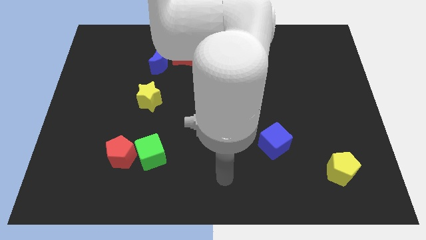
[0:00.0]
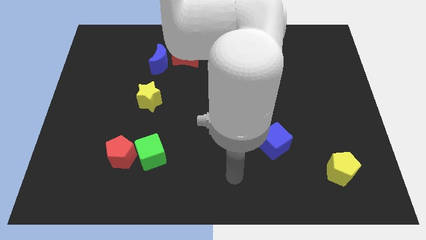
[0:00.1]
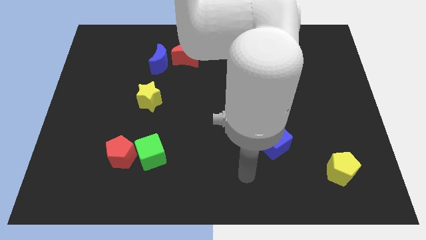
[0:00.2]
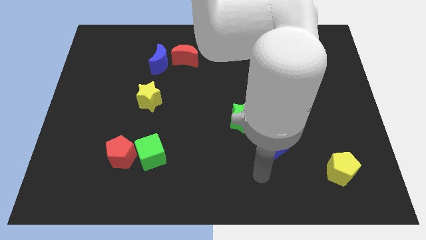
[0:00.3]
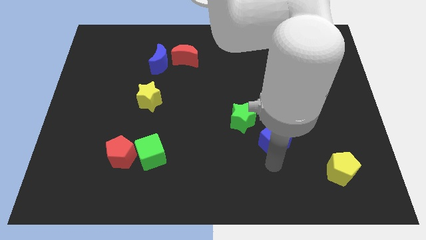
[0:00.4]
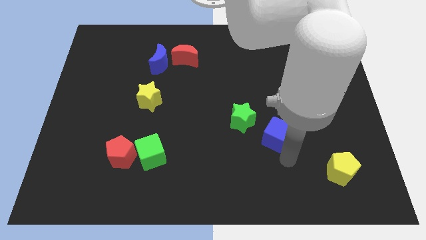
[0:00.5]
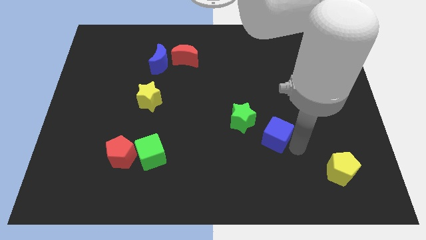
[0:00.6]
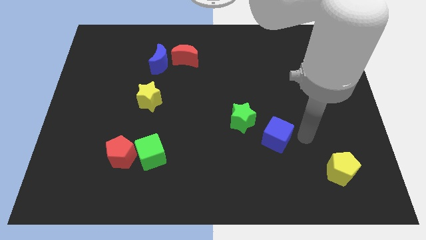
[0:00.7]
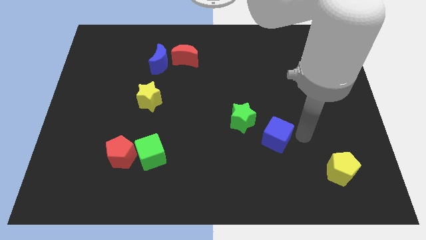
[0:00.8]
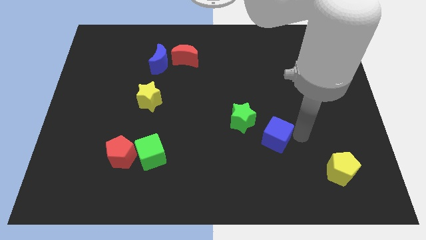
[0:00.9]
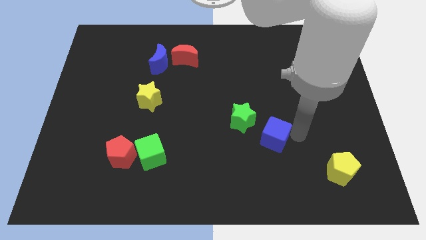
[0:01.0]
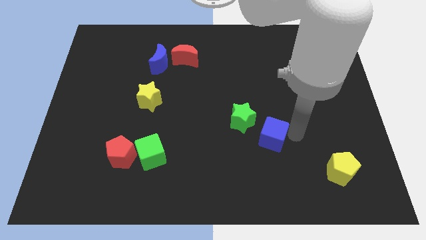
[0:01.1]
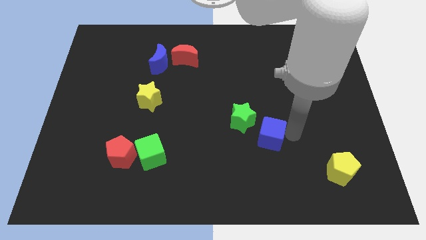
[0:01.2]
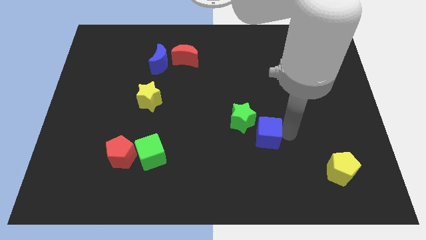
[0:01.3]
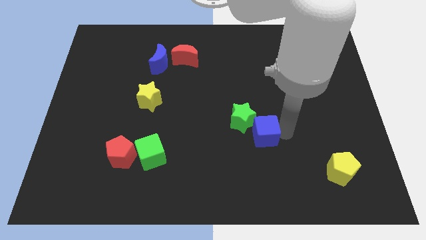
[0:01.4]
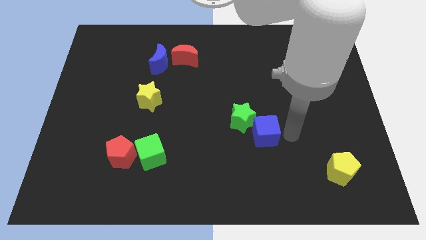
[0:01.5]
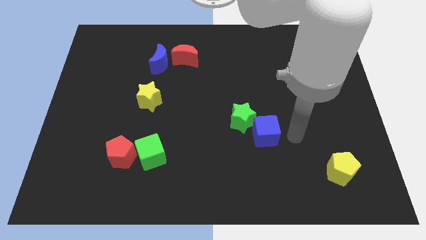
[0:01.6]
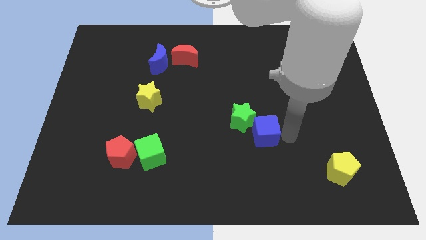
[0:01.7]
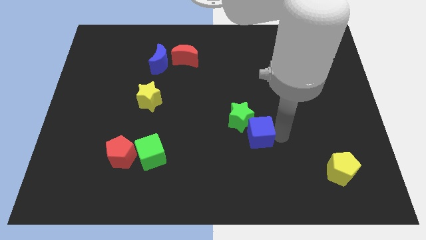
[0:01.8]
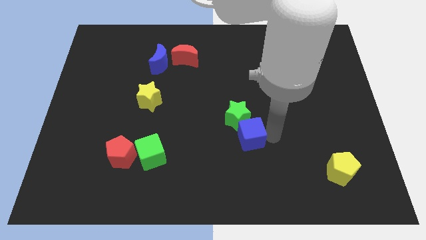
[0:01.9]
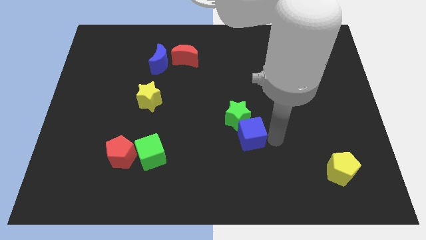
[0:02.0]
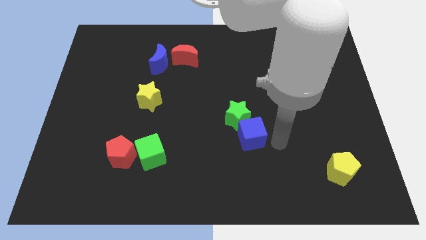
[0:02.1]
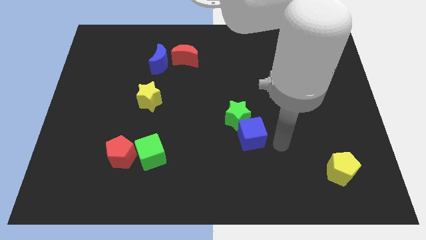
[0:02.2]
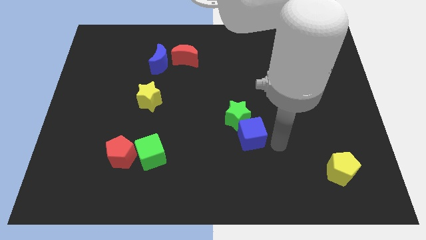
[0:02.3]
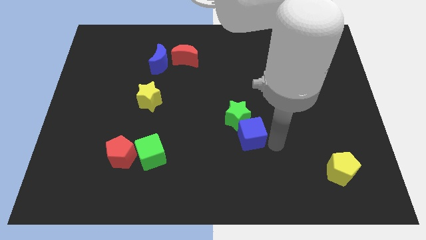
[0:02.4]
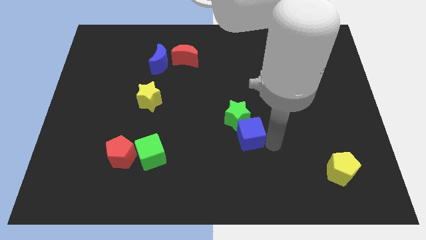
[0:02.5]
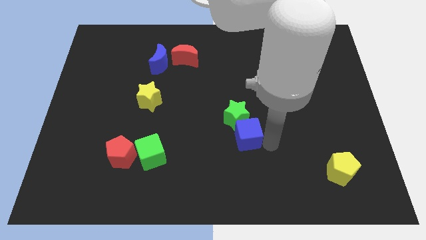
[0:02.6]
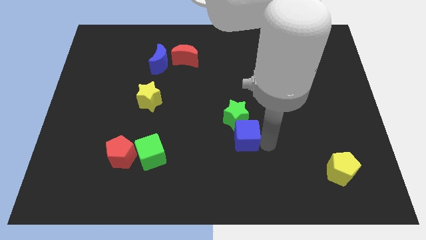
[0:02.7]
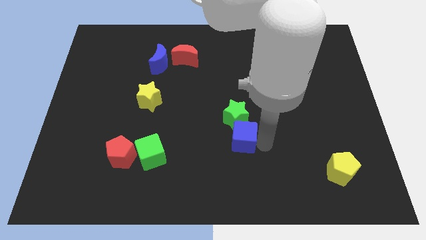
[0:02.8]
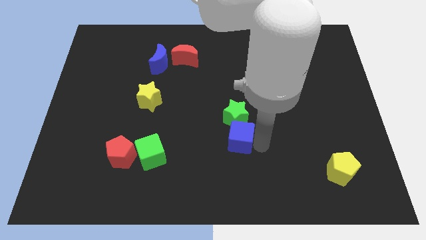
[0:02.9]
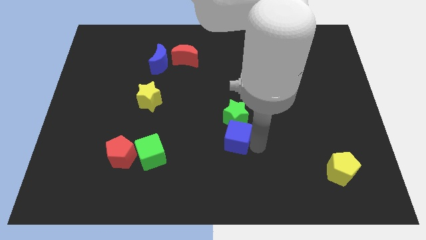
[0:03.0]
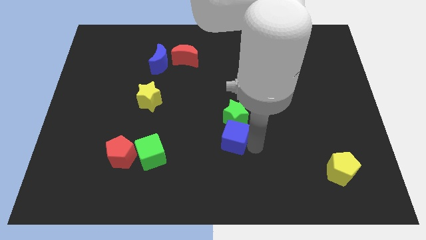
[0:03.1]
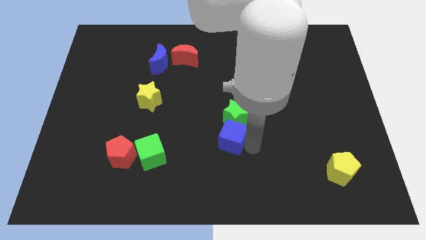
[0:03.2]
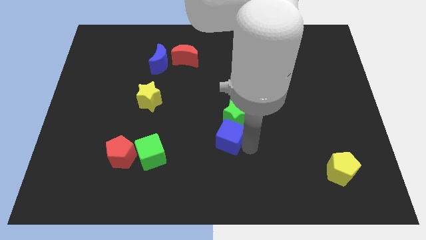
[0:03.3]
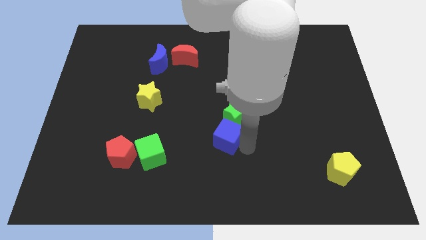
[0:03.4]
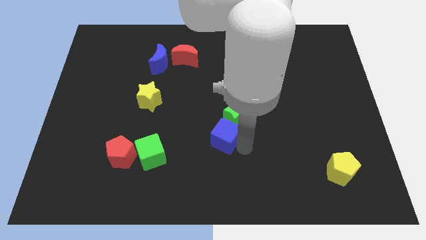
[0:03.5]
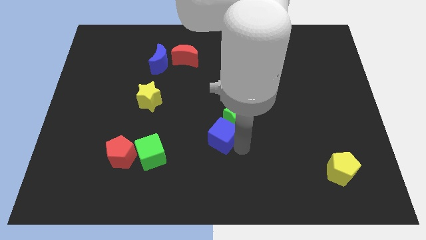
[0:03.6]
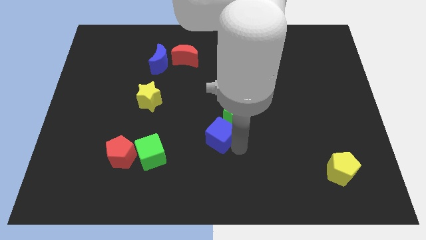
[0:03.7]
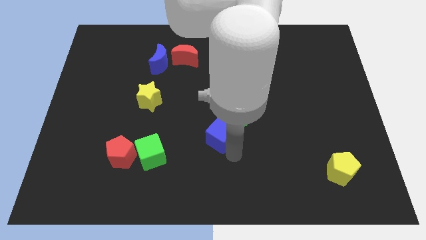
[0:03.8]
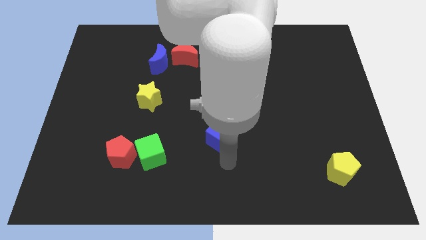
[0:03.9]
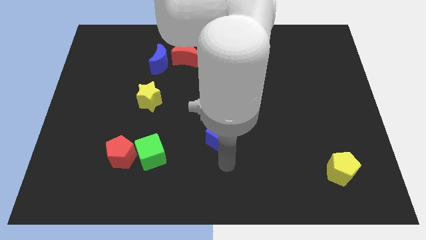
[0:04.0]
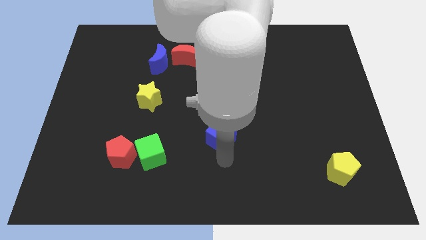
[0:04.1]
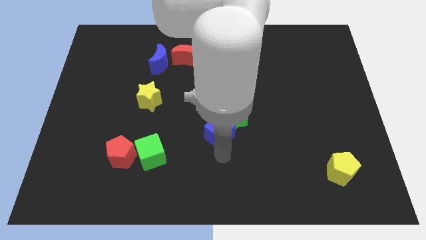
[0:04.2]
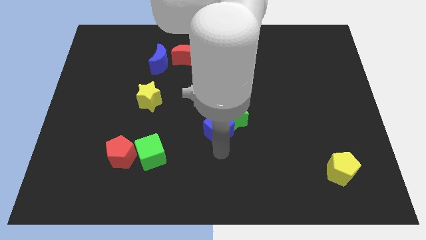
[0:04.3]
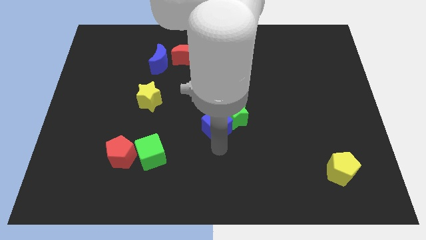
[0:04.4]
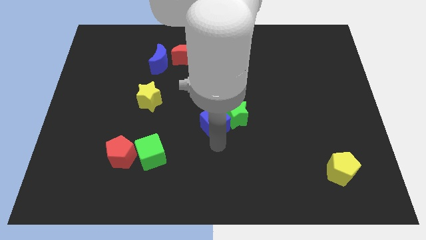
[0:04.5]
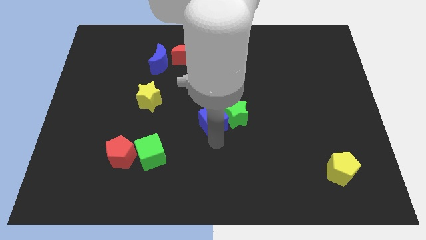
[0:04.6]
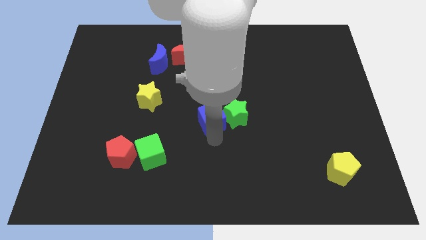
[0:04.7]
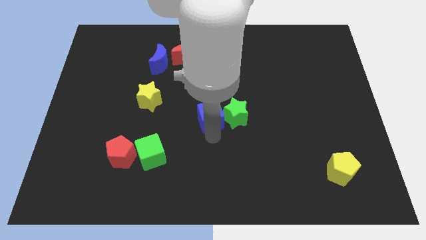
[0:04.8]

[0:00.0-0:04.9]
move the blue cube to the top left of the green star

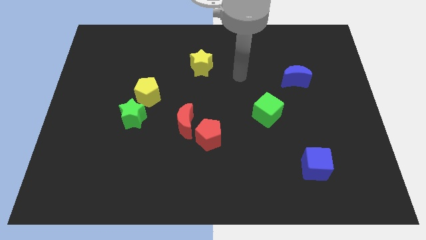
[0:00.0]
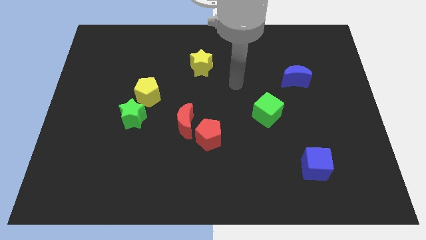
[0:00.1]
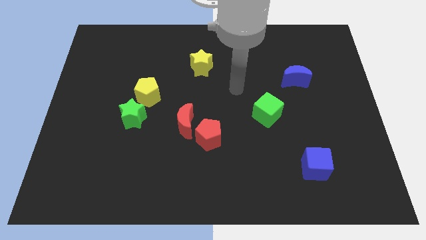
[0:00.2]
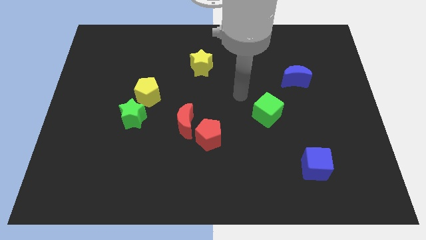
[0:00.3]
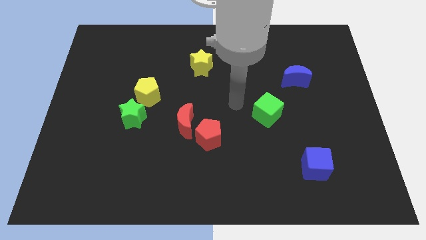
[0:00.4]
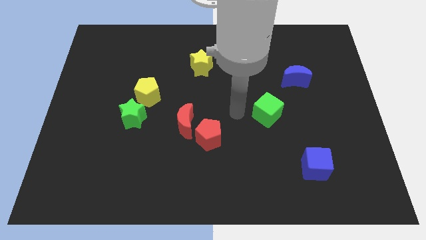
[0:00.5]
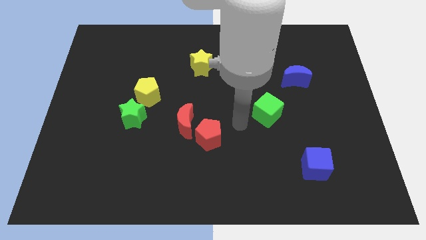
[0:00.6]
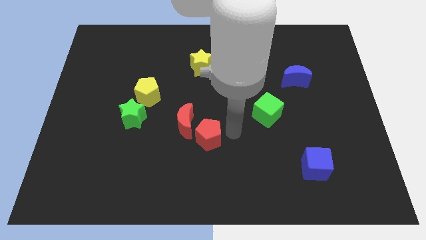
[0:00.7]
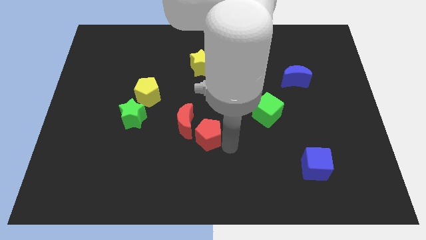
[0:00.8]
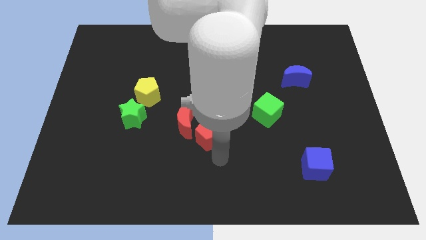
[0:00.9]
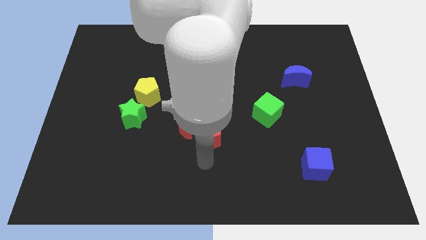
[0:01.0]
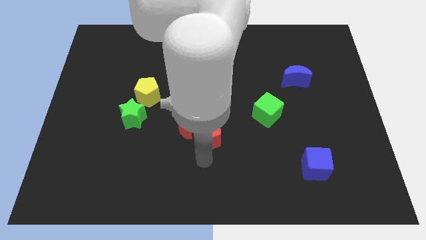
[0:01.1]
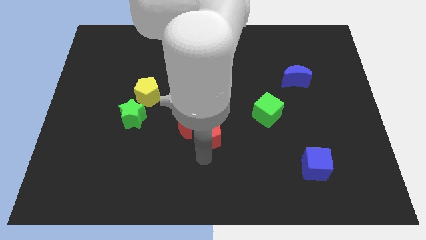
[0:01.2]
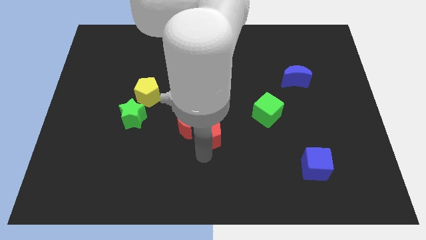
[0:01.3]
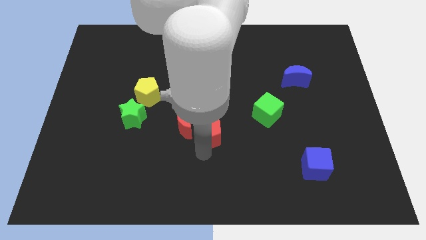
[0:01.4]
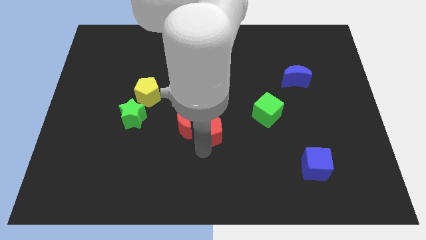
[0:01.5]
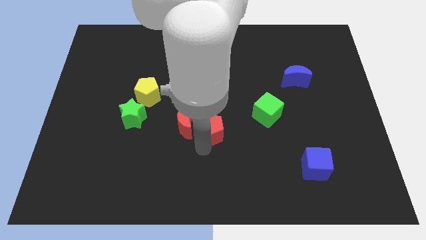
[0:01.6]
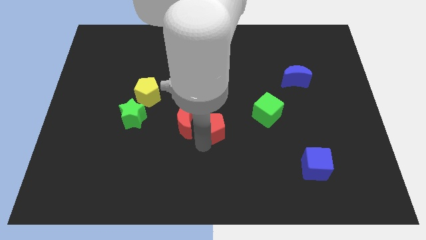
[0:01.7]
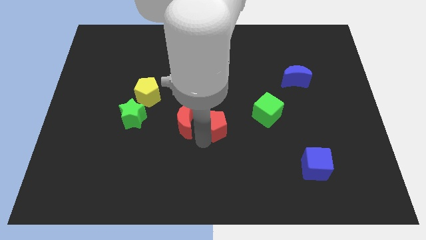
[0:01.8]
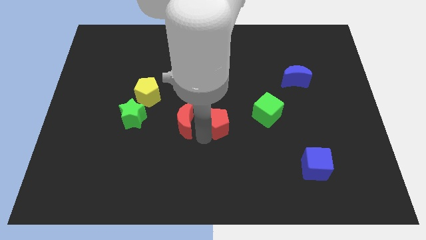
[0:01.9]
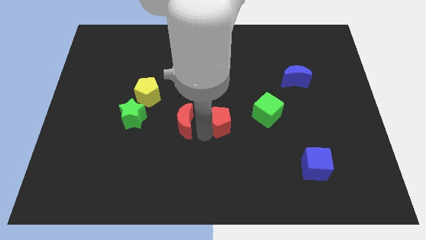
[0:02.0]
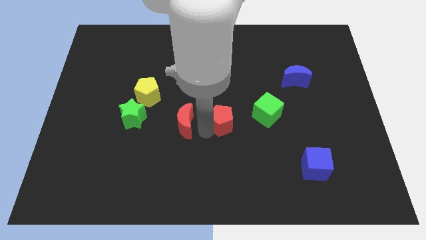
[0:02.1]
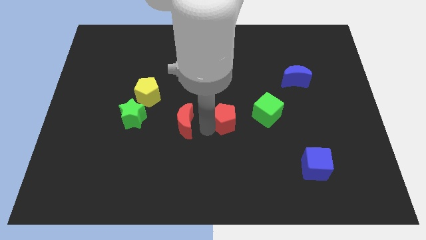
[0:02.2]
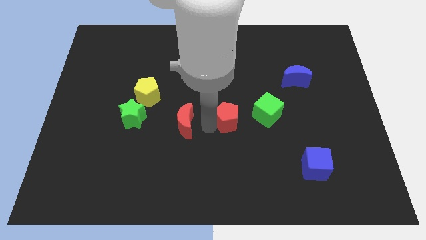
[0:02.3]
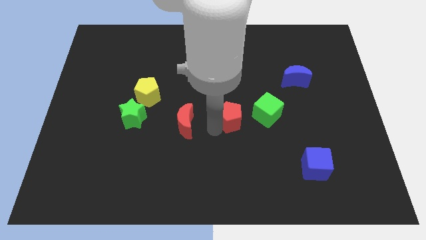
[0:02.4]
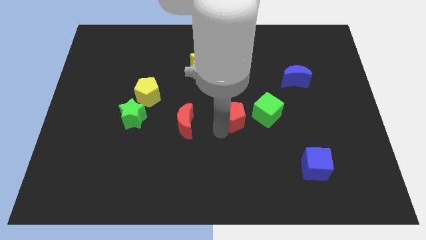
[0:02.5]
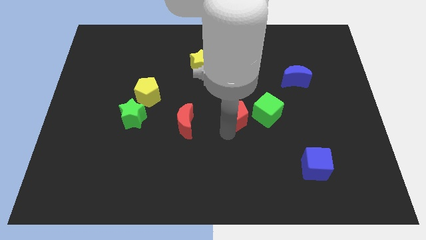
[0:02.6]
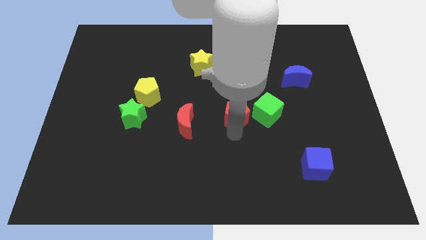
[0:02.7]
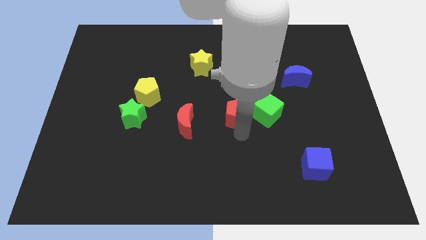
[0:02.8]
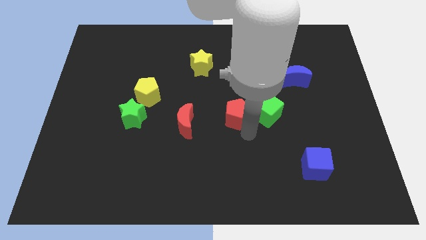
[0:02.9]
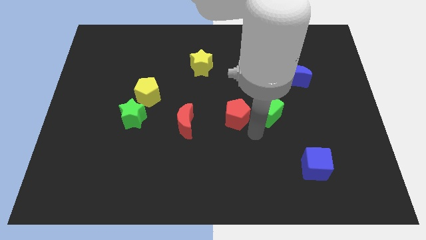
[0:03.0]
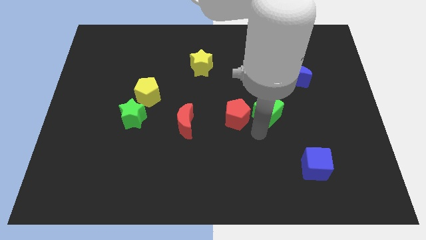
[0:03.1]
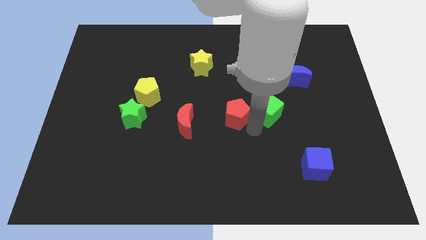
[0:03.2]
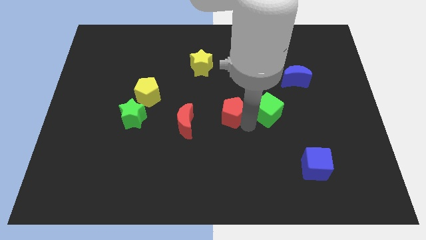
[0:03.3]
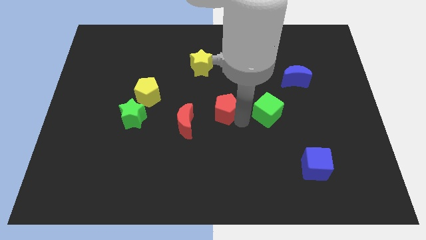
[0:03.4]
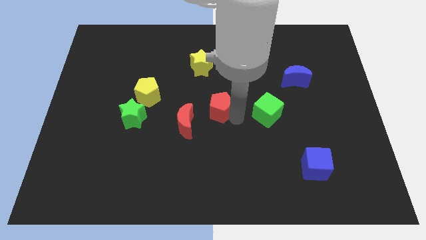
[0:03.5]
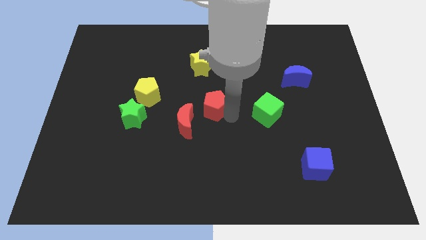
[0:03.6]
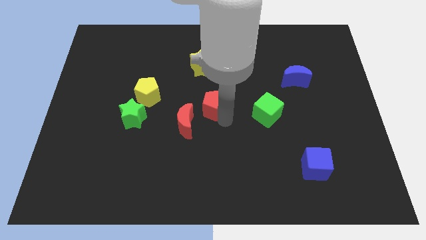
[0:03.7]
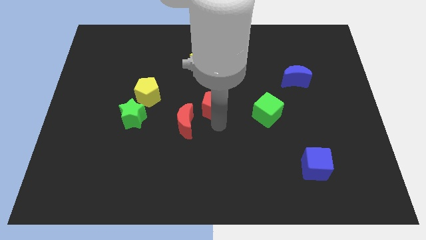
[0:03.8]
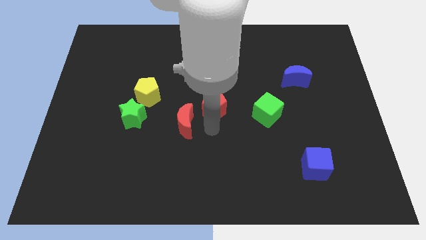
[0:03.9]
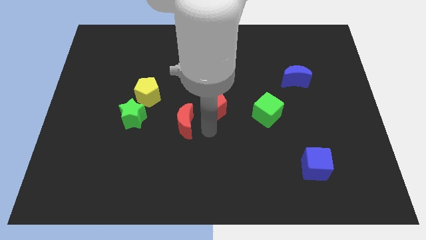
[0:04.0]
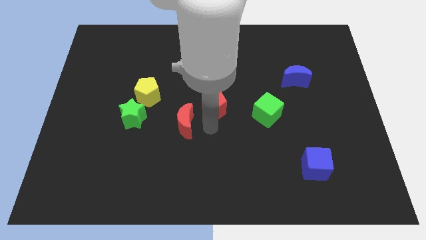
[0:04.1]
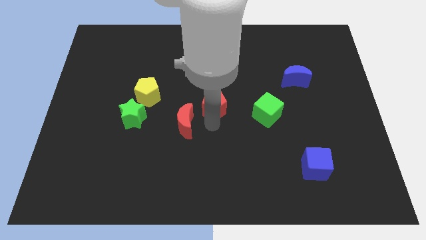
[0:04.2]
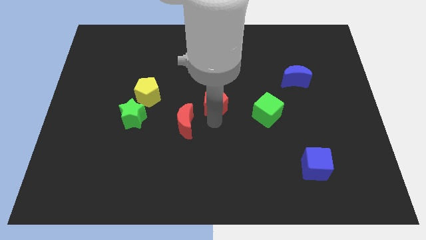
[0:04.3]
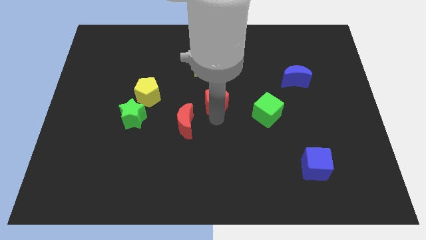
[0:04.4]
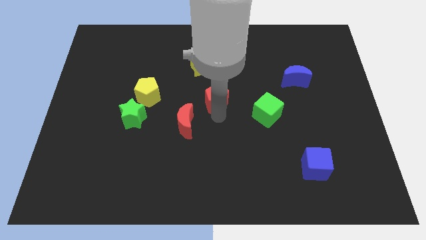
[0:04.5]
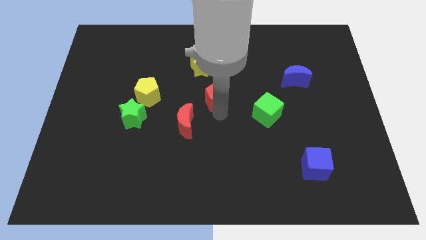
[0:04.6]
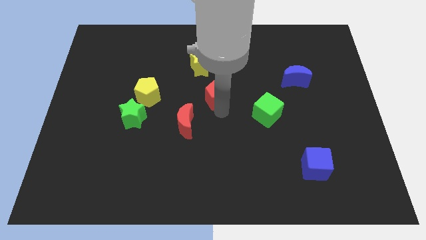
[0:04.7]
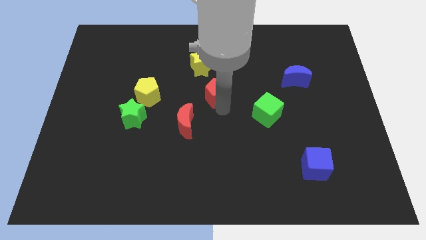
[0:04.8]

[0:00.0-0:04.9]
put the red pentagon to the bottom right of the yellow star
